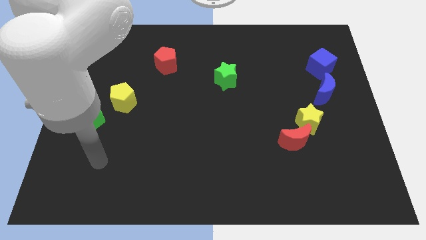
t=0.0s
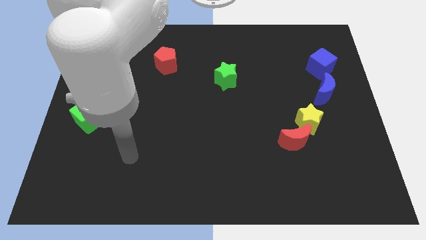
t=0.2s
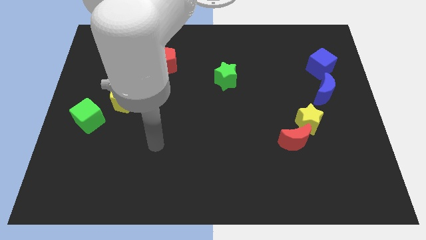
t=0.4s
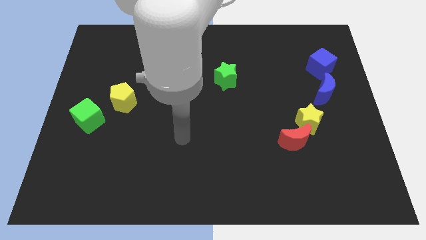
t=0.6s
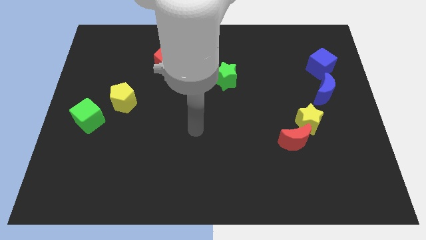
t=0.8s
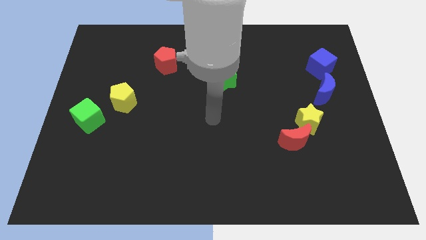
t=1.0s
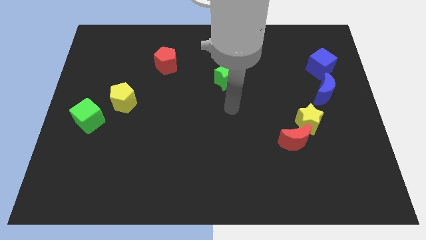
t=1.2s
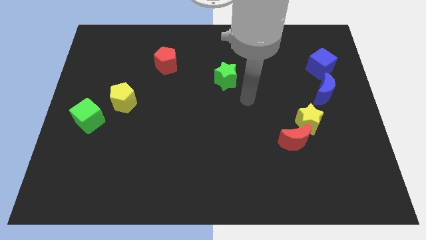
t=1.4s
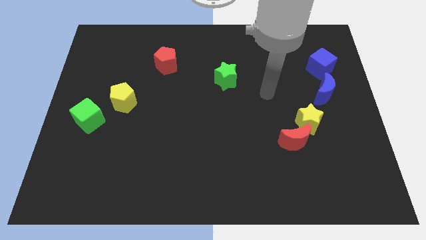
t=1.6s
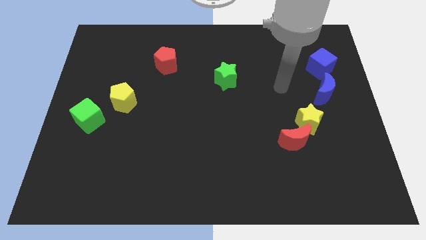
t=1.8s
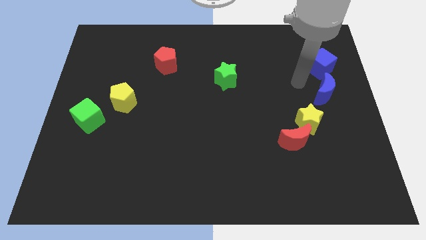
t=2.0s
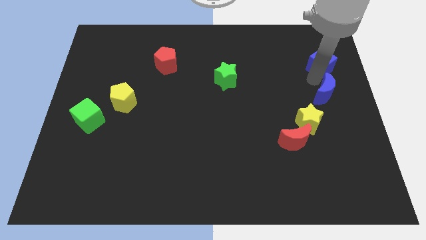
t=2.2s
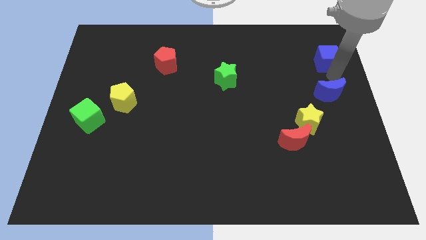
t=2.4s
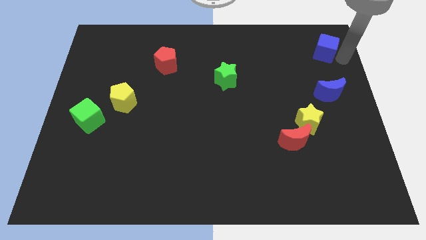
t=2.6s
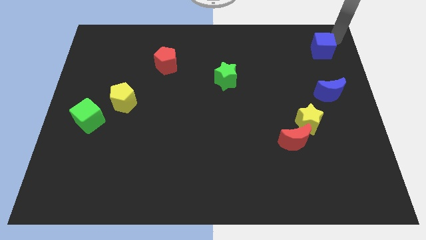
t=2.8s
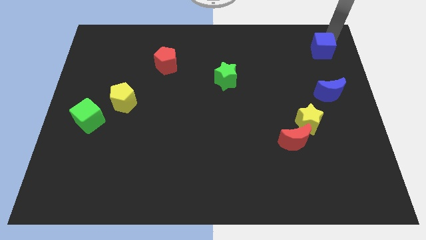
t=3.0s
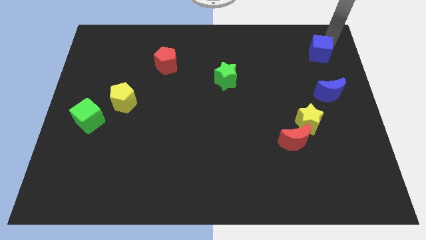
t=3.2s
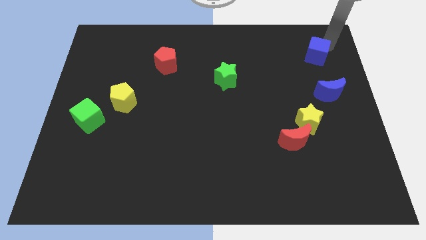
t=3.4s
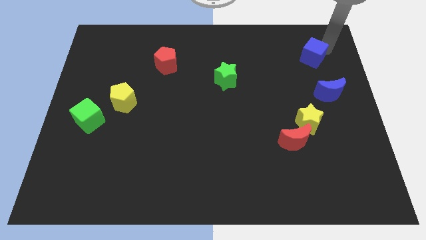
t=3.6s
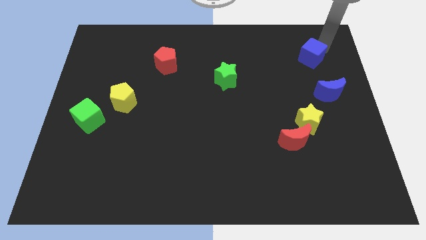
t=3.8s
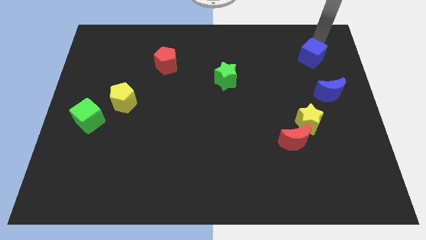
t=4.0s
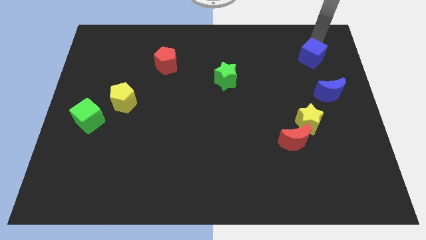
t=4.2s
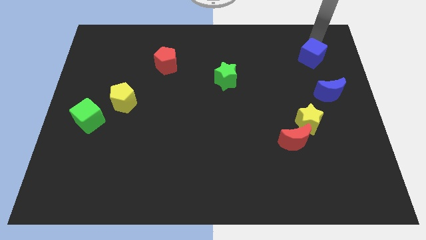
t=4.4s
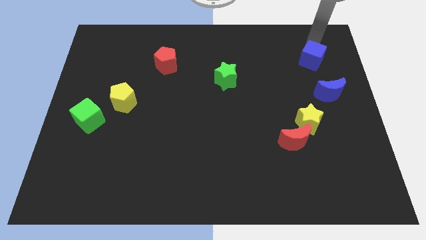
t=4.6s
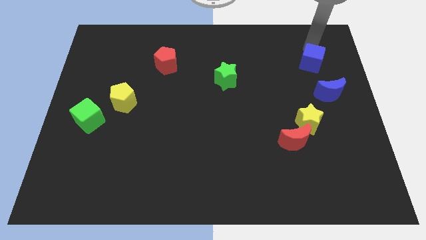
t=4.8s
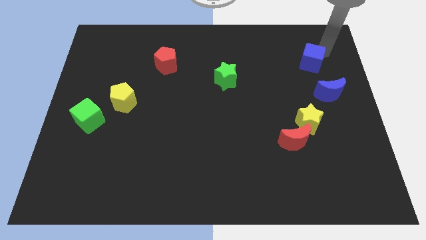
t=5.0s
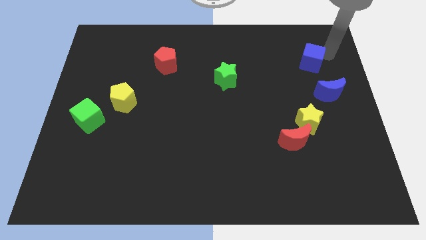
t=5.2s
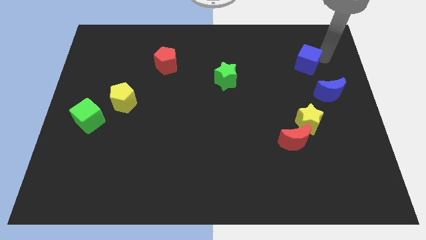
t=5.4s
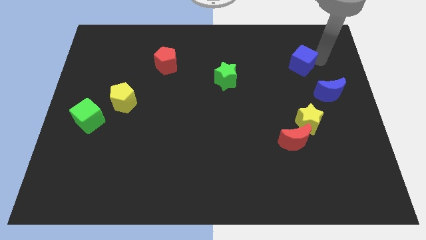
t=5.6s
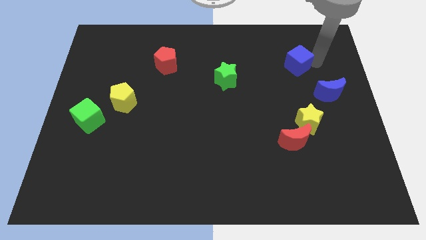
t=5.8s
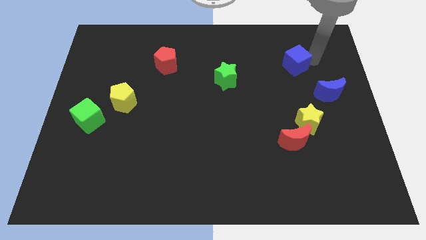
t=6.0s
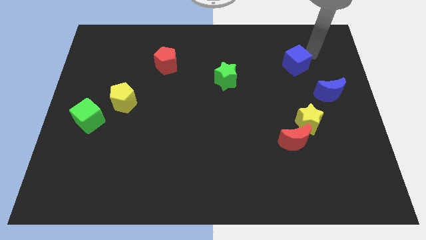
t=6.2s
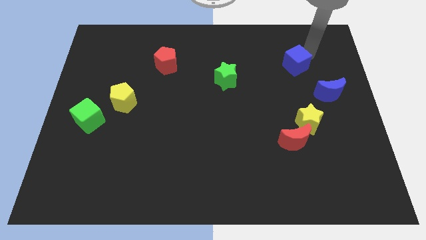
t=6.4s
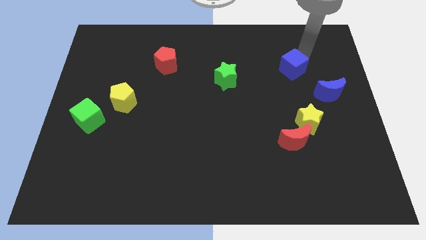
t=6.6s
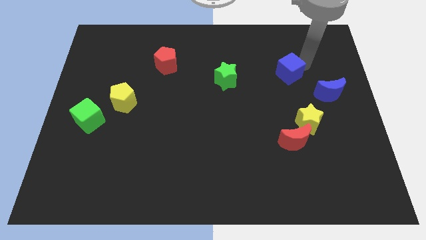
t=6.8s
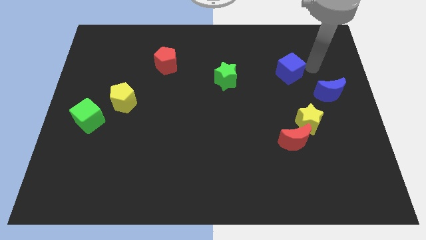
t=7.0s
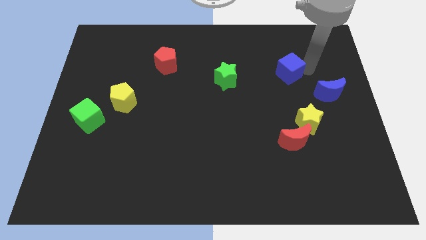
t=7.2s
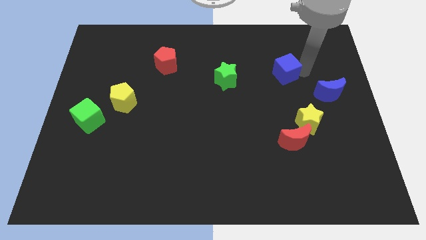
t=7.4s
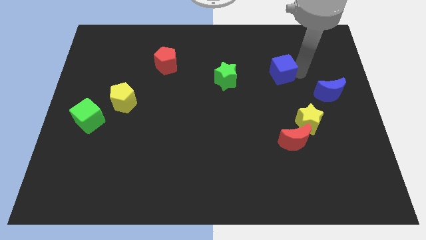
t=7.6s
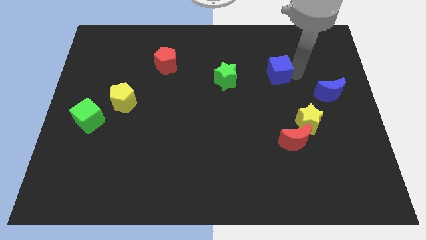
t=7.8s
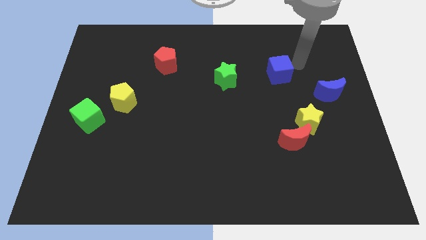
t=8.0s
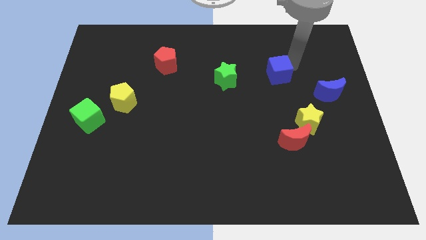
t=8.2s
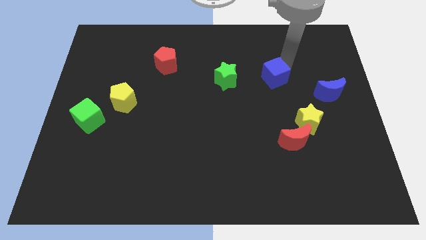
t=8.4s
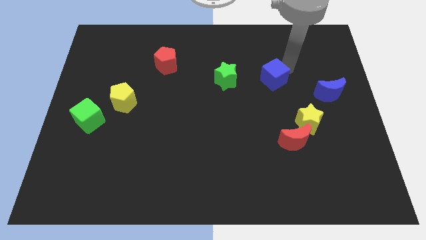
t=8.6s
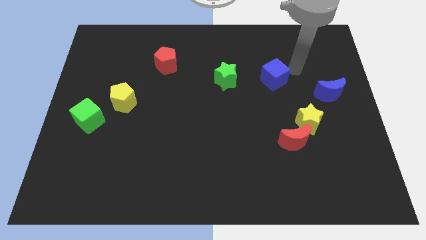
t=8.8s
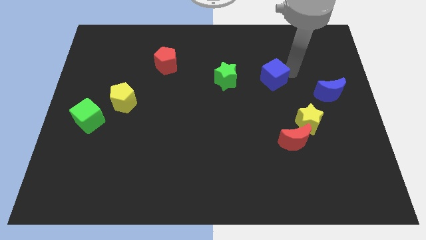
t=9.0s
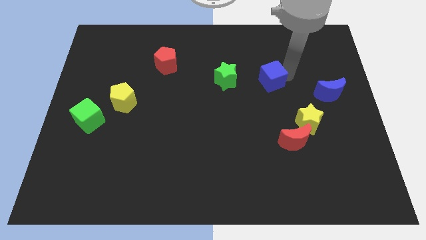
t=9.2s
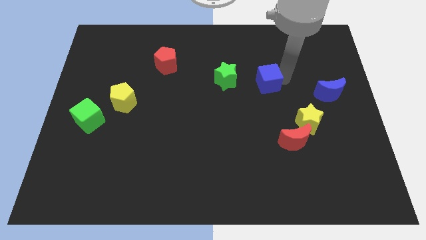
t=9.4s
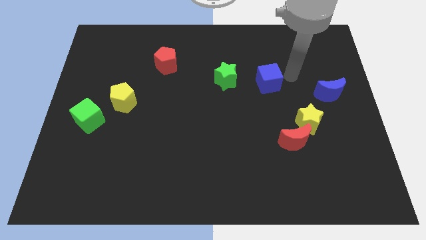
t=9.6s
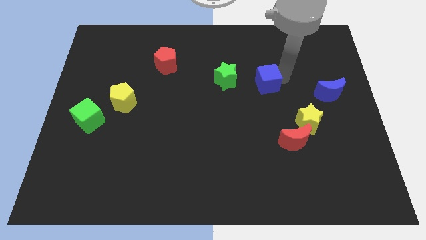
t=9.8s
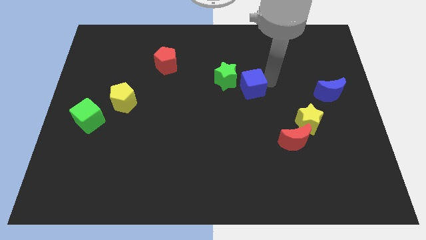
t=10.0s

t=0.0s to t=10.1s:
put the blue cube to the center of the board

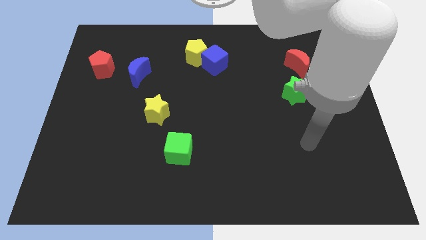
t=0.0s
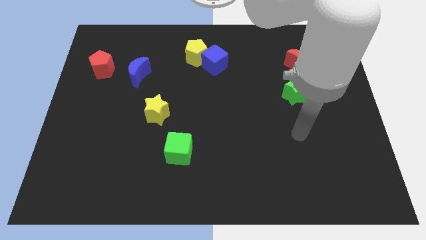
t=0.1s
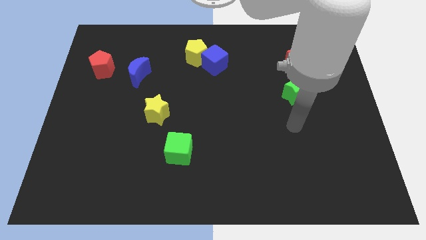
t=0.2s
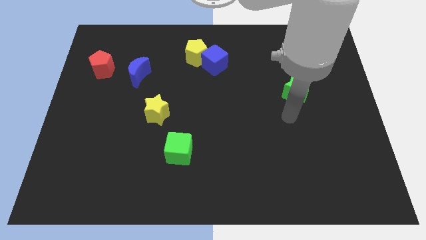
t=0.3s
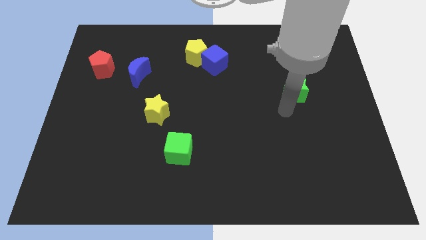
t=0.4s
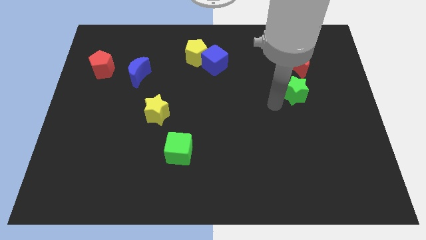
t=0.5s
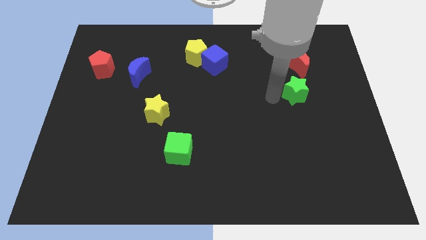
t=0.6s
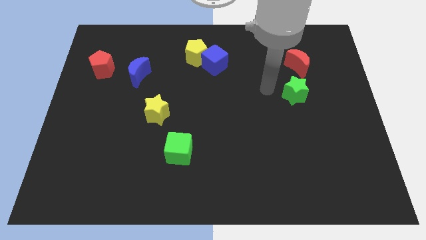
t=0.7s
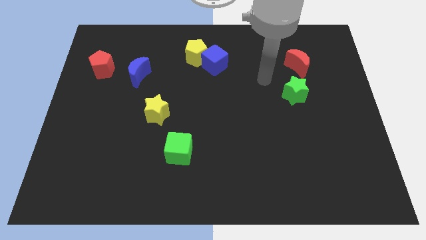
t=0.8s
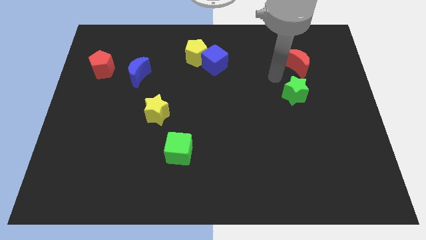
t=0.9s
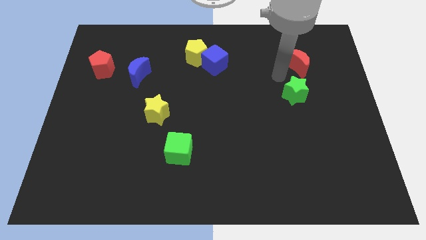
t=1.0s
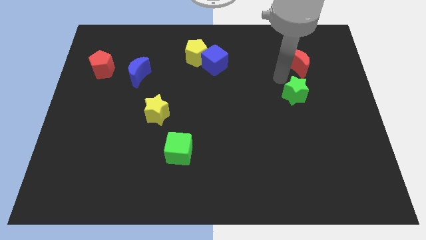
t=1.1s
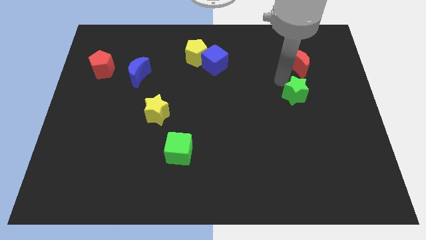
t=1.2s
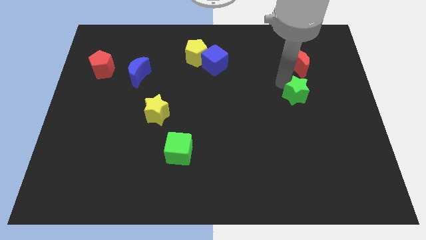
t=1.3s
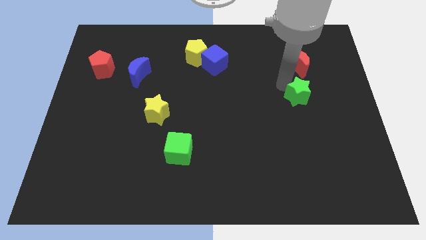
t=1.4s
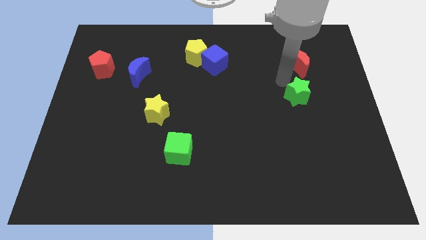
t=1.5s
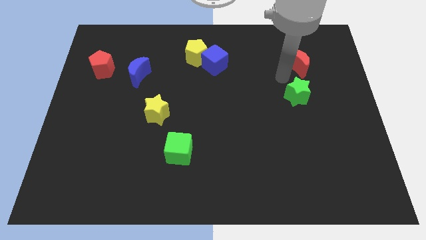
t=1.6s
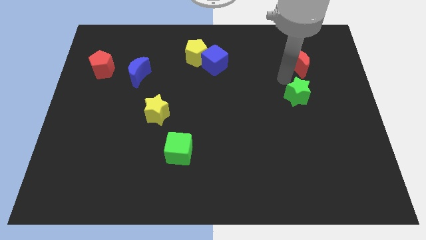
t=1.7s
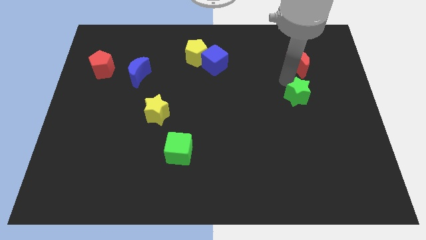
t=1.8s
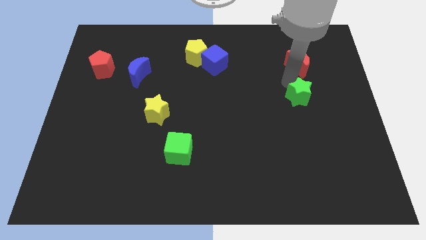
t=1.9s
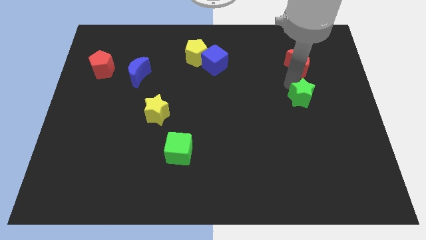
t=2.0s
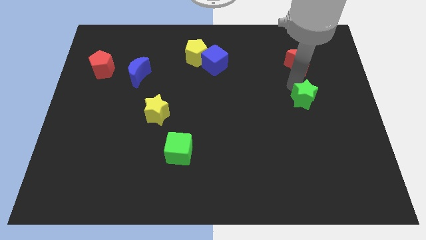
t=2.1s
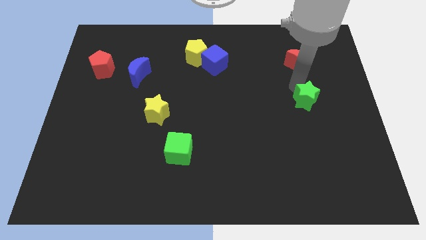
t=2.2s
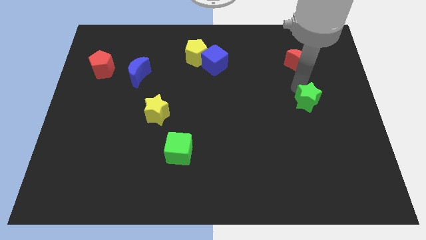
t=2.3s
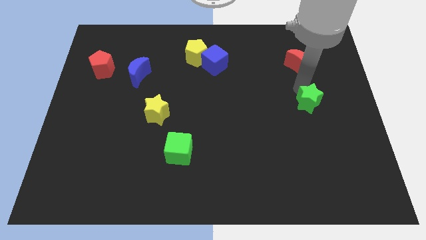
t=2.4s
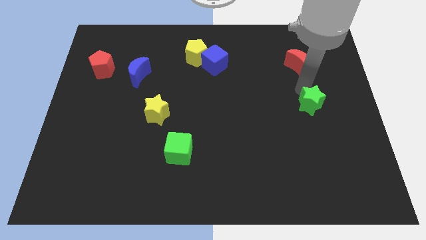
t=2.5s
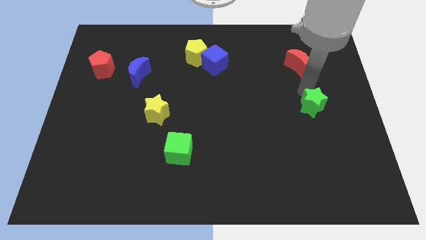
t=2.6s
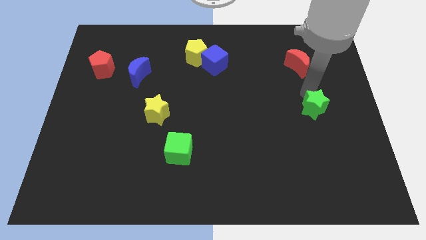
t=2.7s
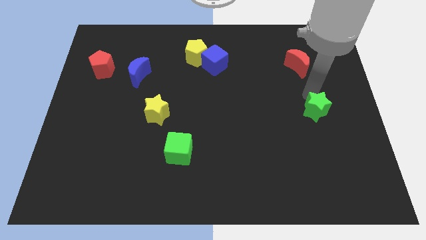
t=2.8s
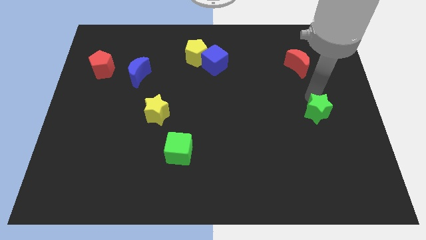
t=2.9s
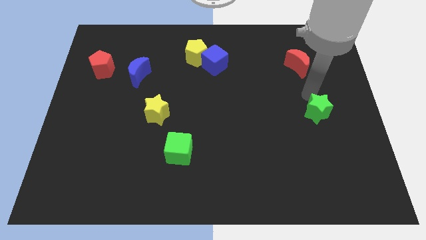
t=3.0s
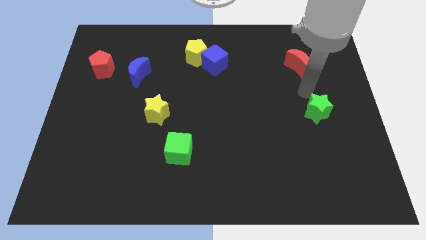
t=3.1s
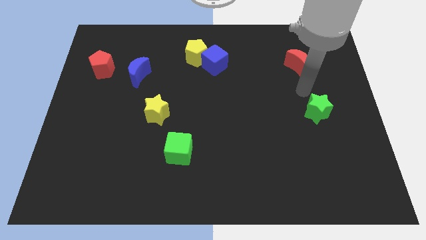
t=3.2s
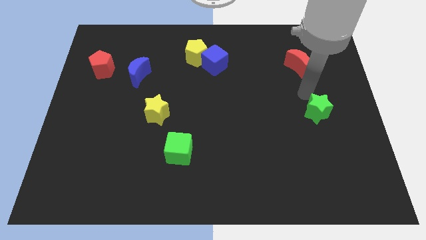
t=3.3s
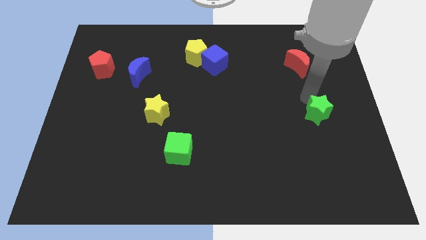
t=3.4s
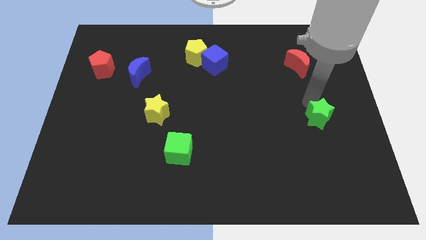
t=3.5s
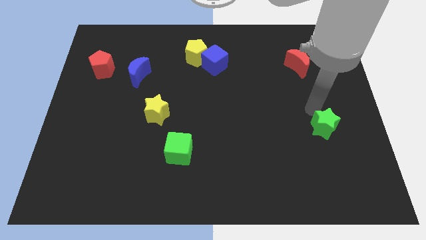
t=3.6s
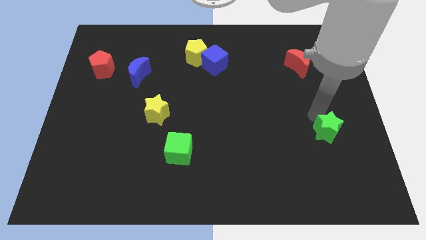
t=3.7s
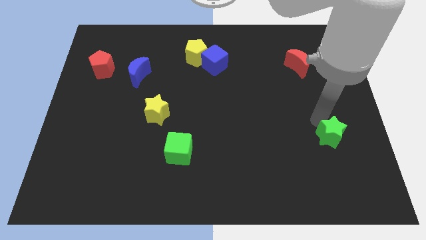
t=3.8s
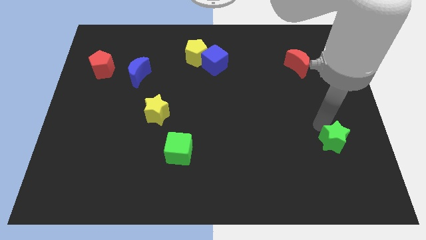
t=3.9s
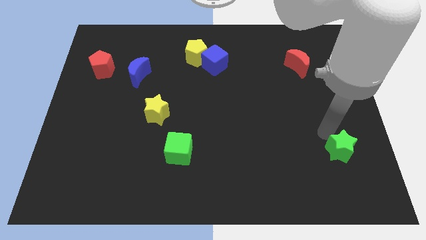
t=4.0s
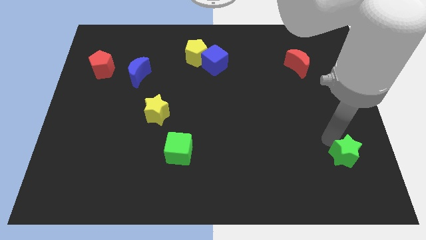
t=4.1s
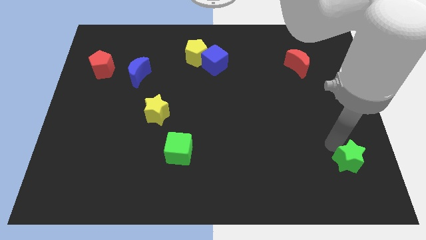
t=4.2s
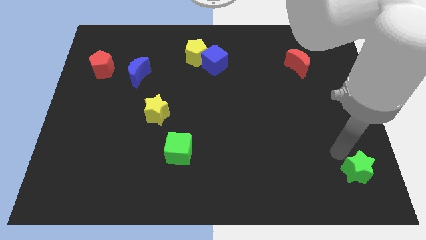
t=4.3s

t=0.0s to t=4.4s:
slide the green star to the lower right corner
